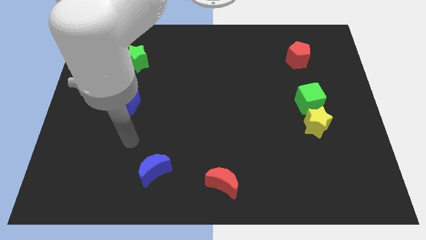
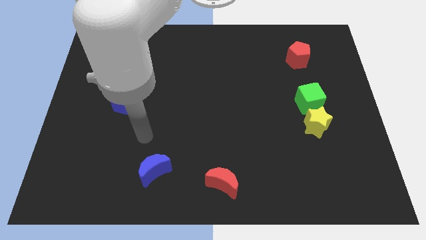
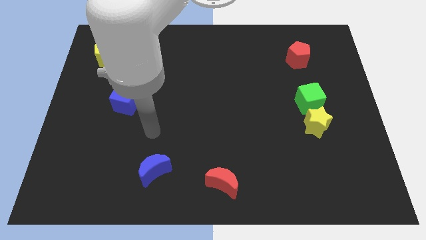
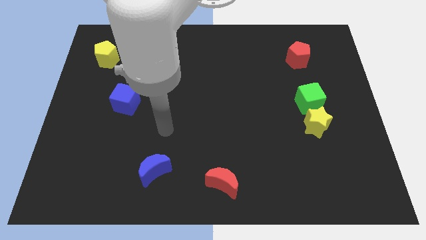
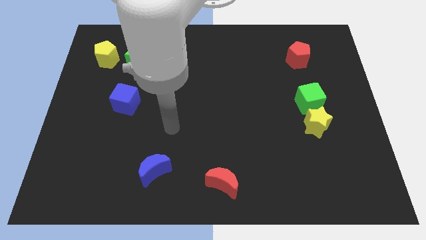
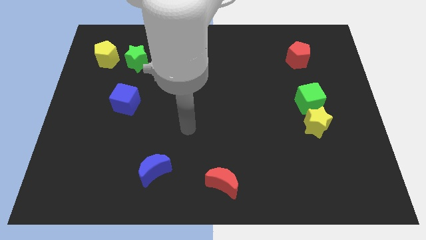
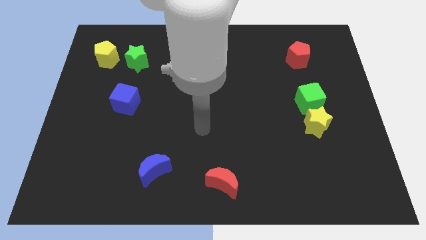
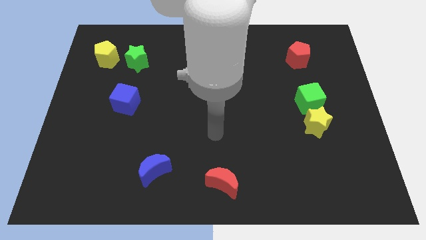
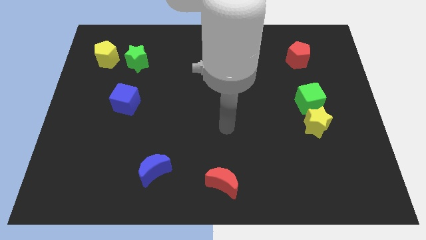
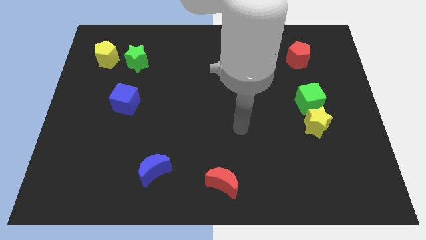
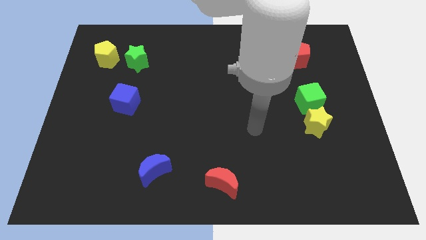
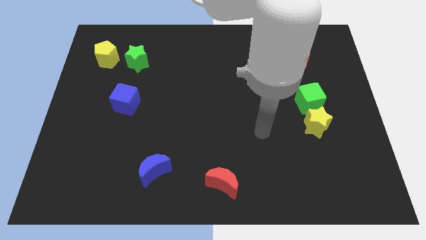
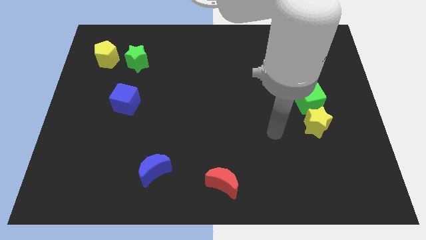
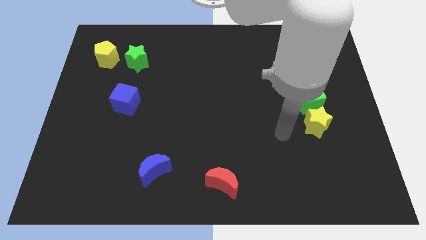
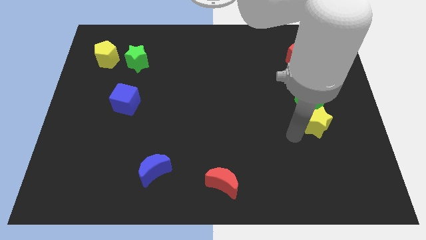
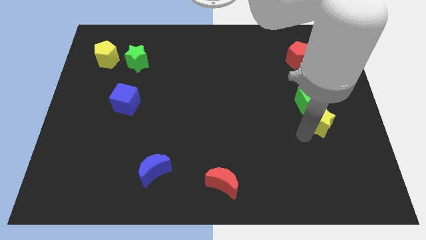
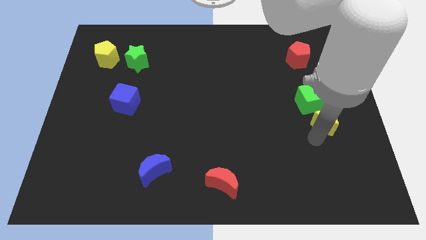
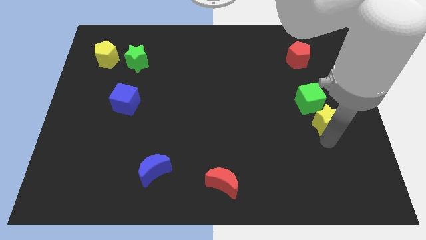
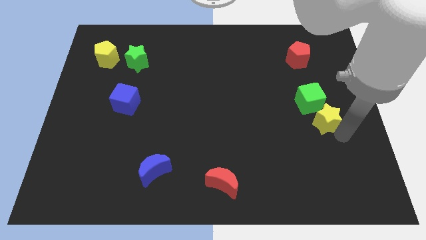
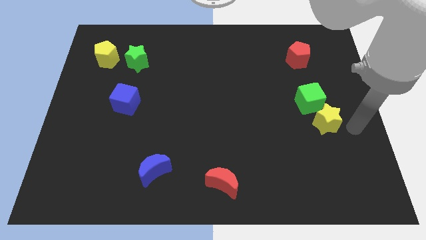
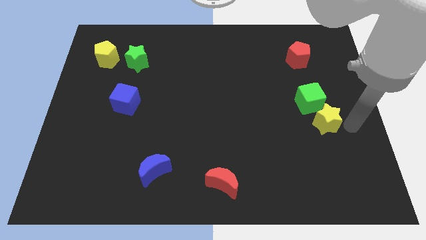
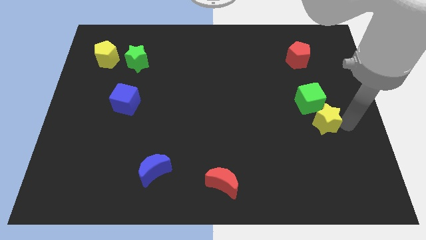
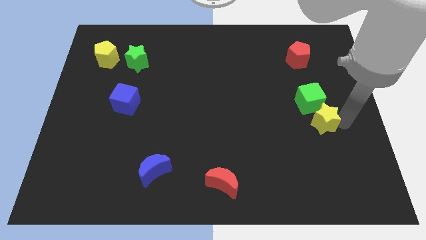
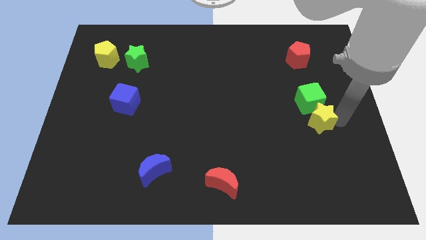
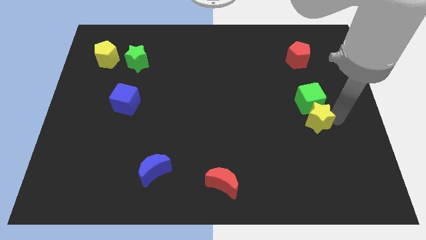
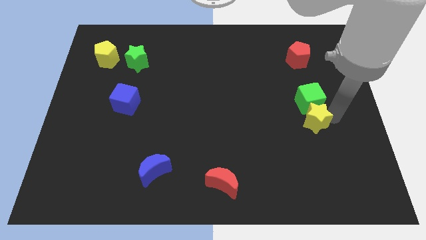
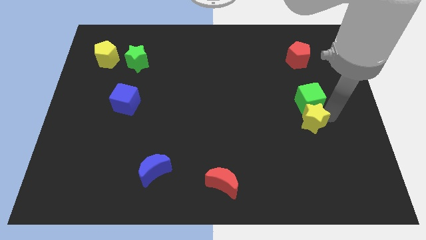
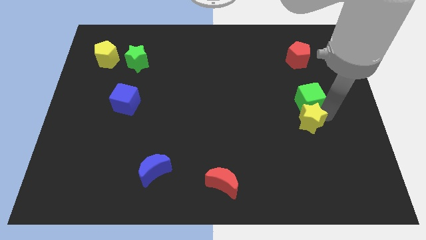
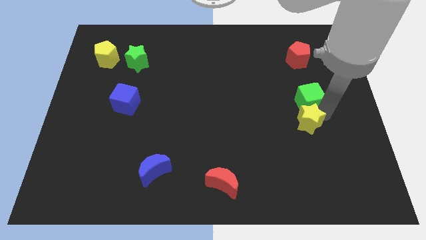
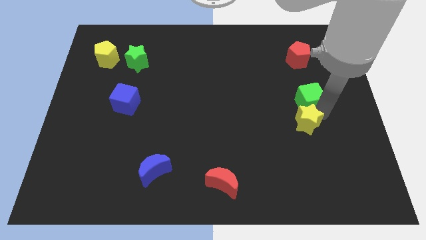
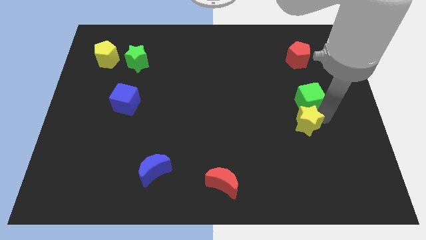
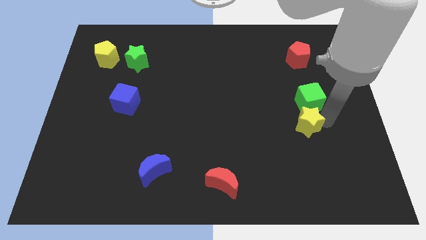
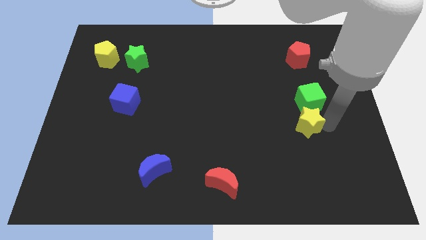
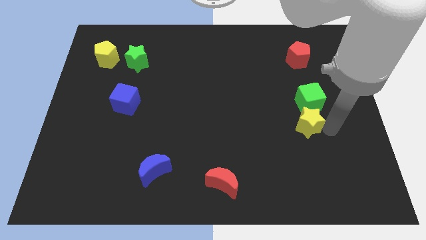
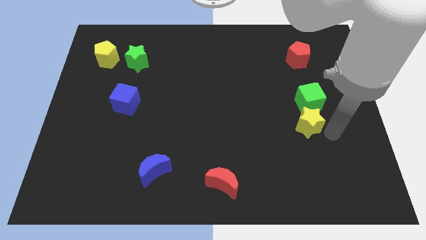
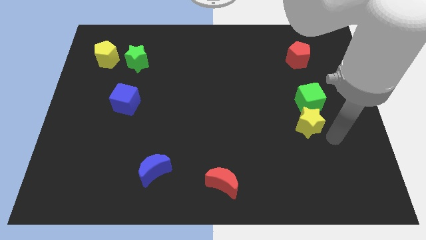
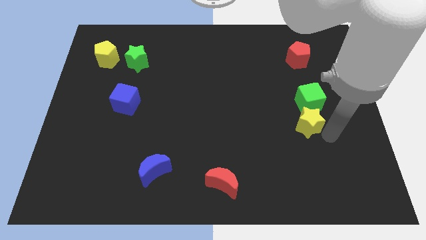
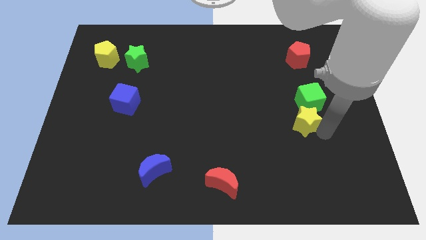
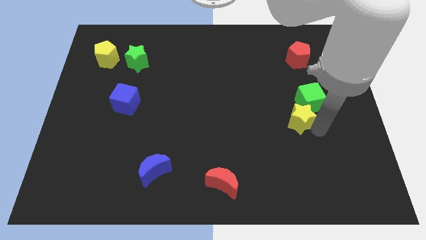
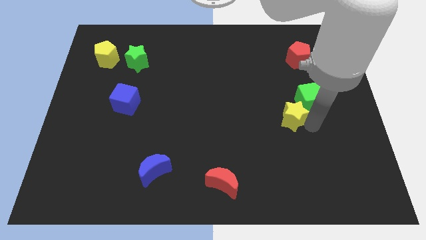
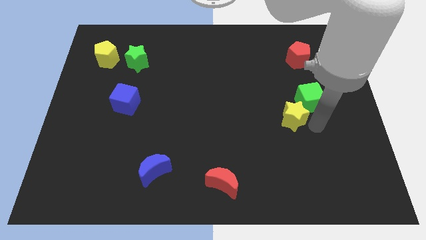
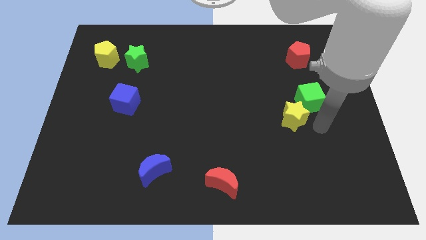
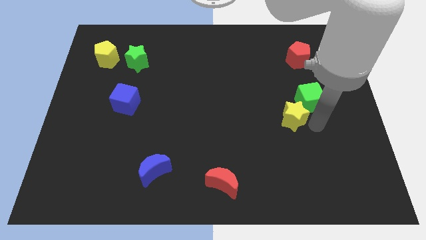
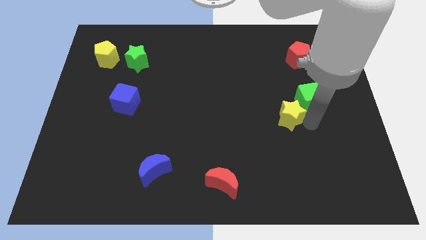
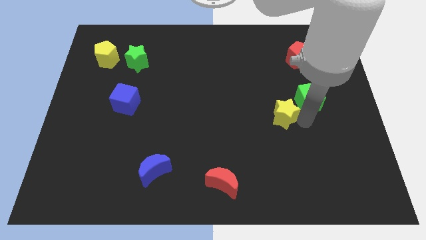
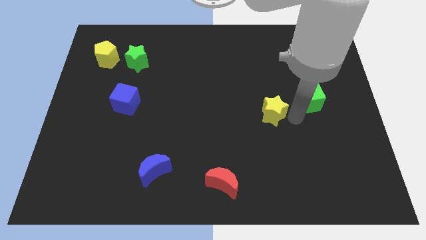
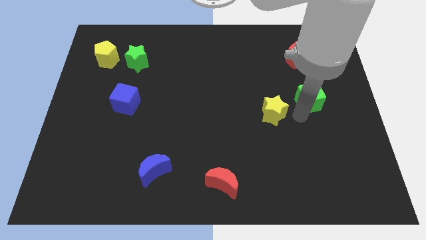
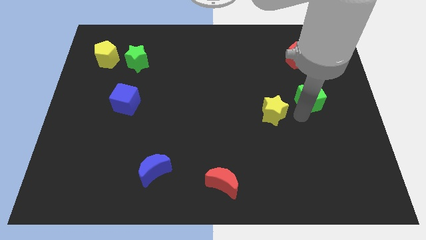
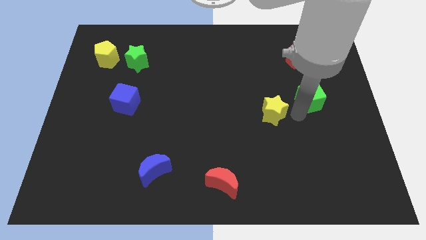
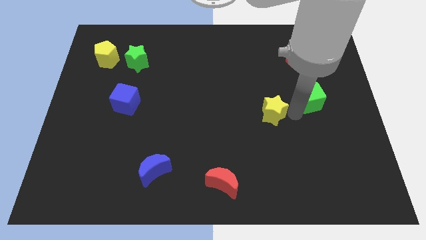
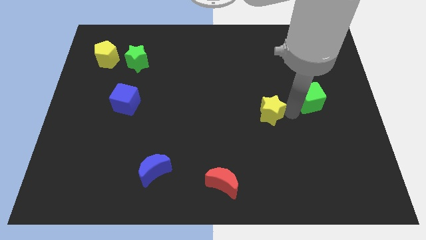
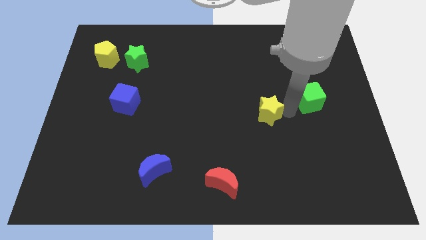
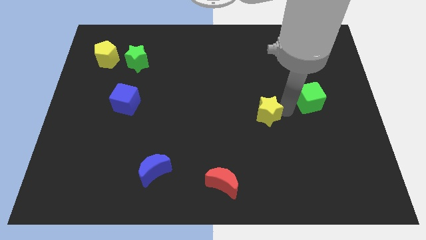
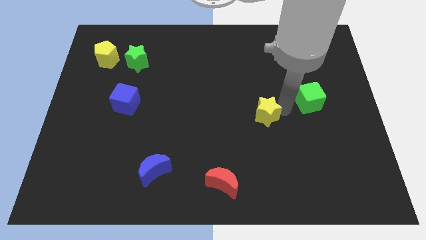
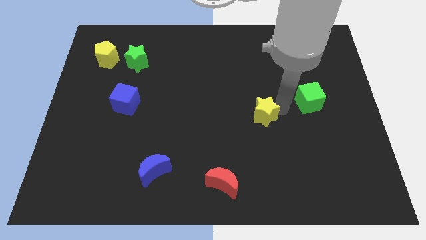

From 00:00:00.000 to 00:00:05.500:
slide the yellow star to the center

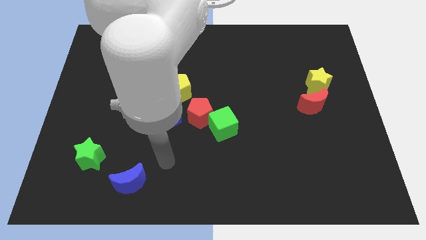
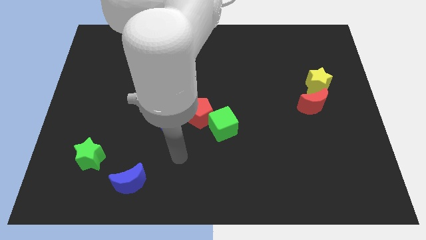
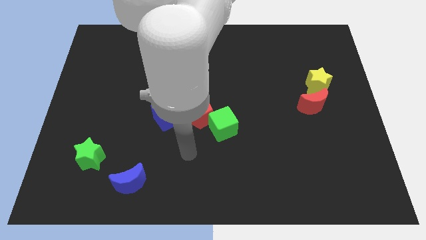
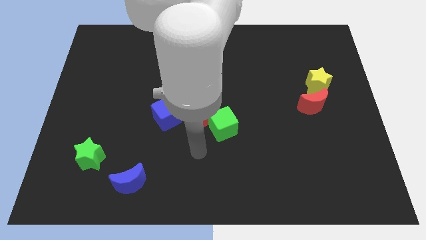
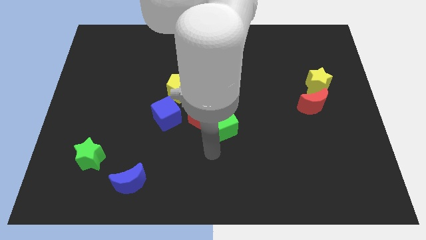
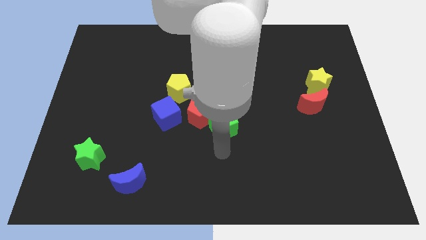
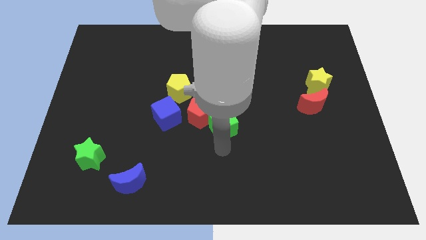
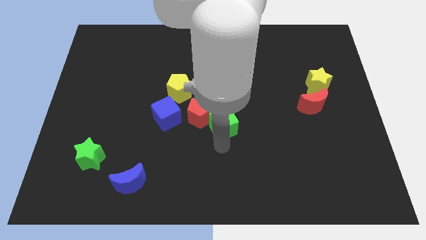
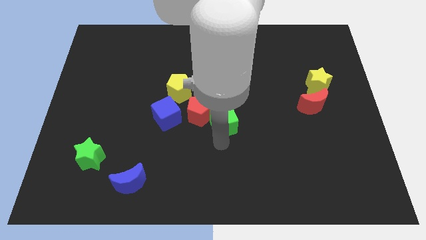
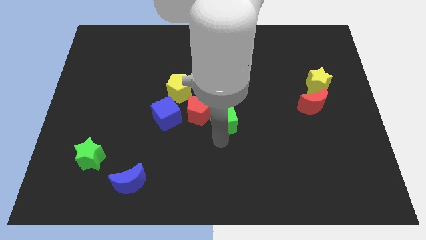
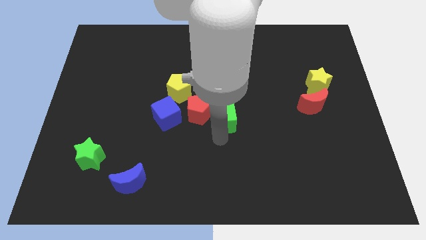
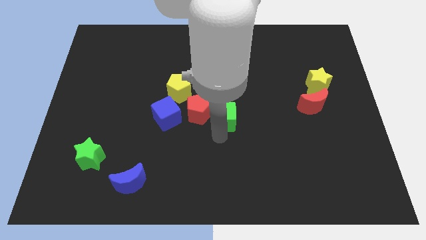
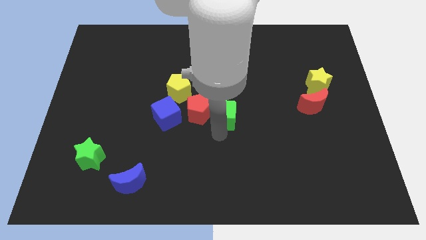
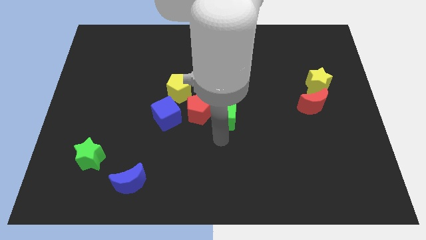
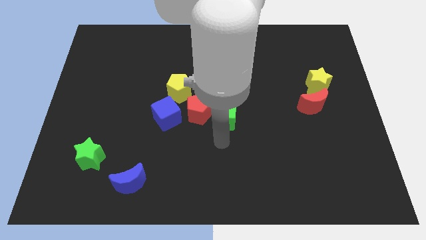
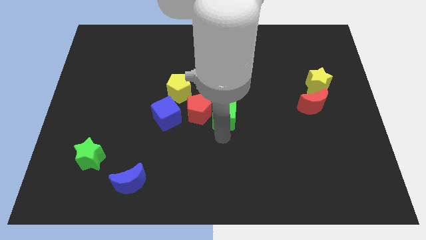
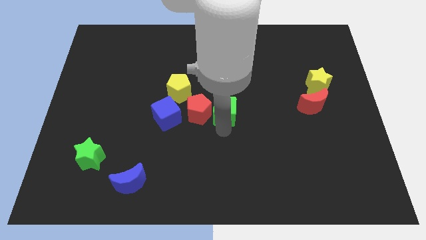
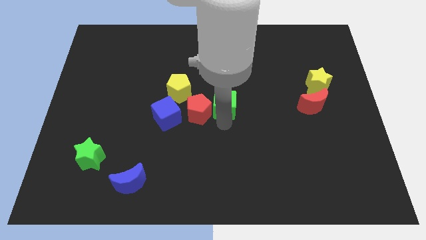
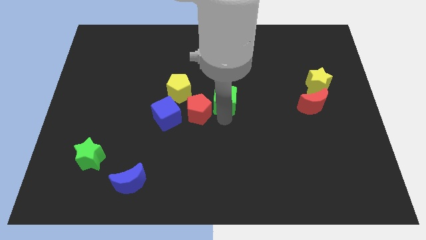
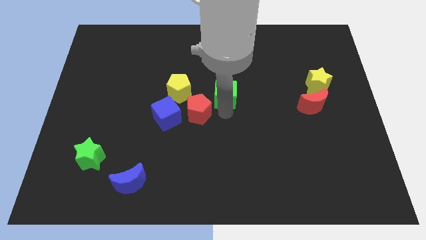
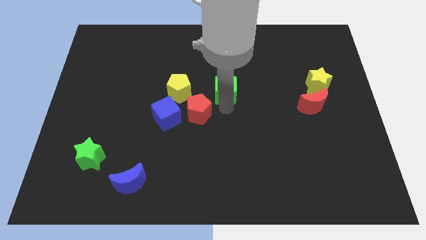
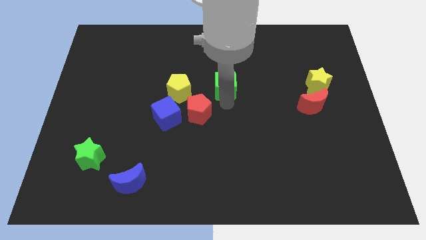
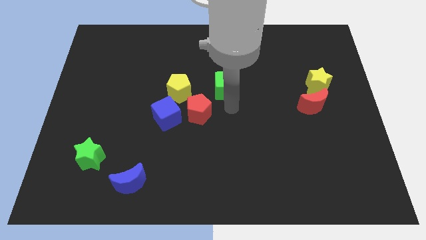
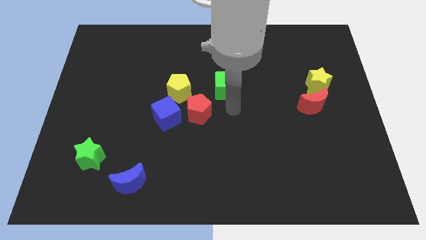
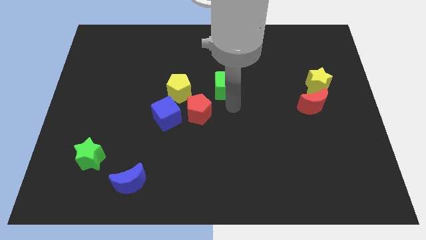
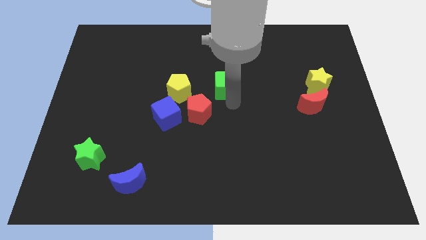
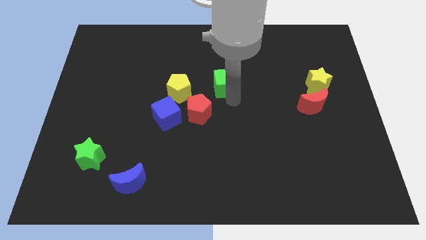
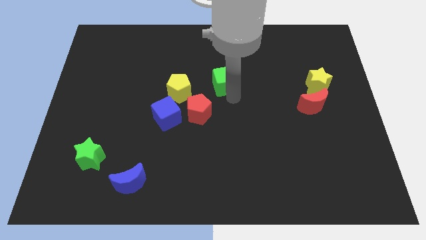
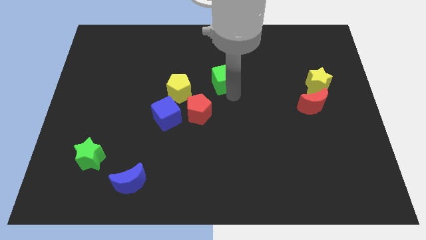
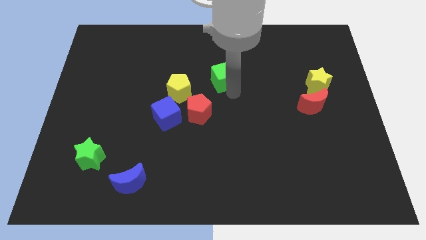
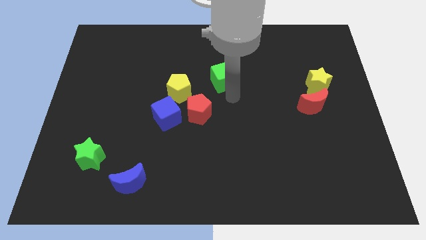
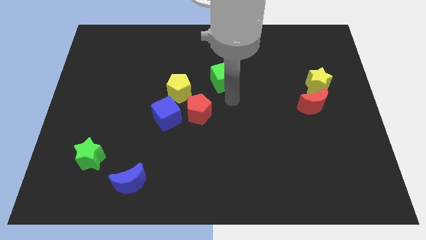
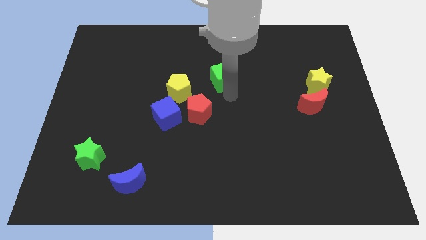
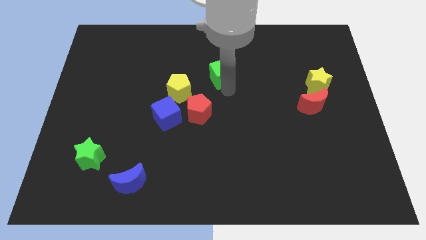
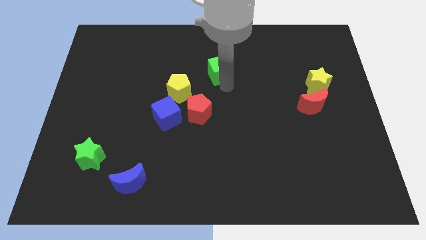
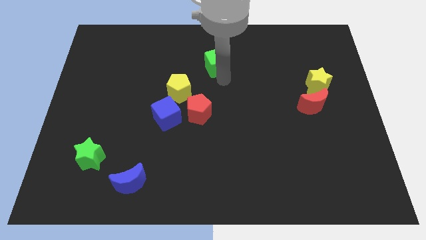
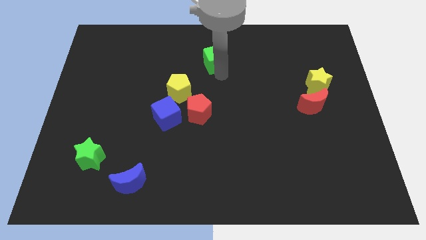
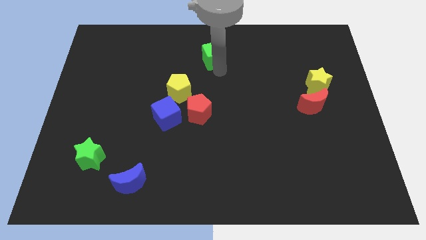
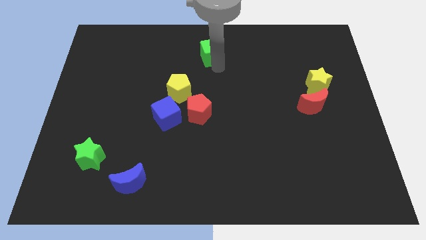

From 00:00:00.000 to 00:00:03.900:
push the green cube to the top
